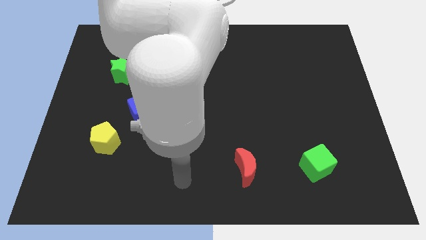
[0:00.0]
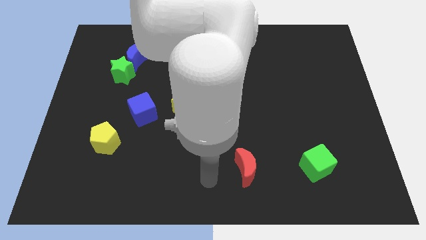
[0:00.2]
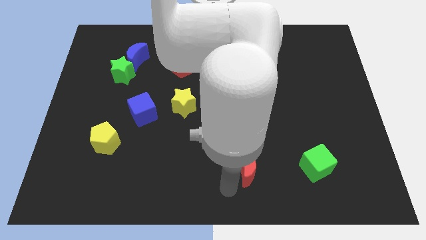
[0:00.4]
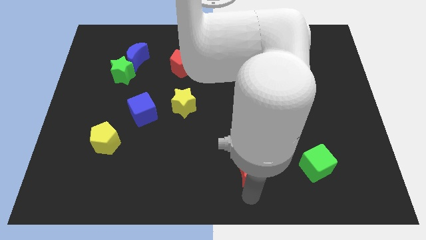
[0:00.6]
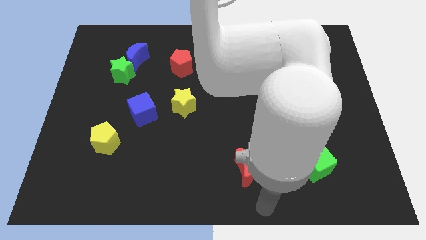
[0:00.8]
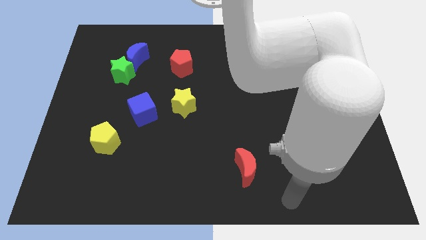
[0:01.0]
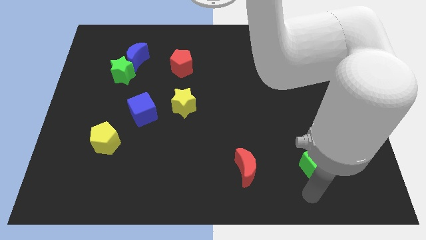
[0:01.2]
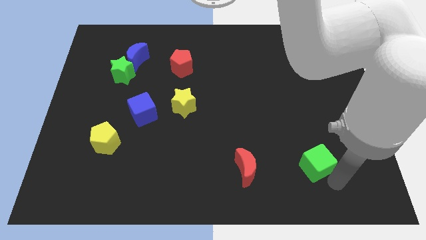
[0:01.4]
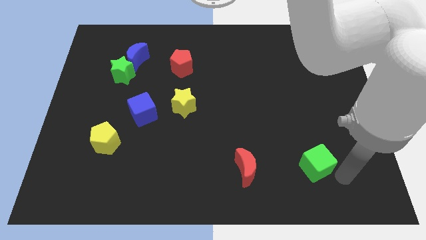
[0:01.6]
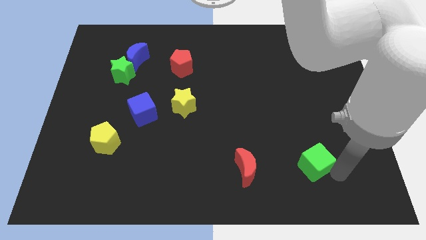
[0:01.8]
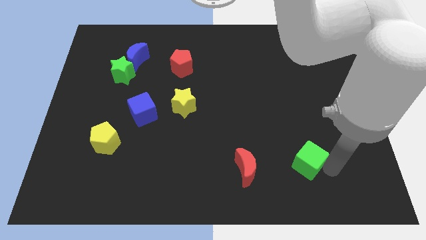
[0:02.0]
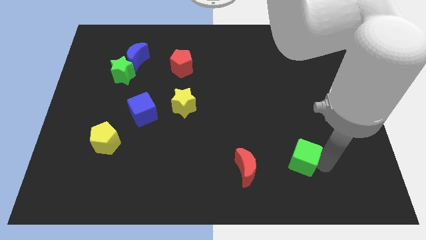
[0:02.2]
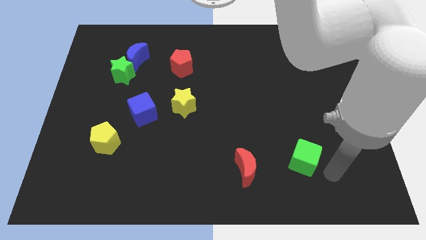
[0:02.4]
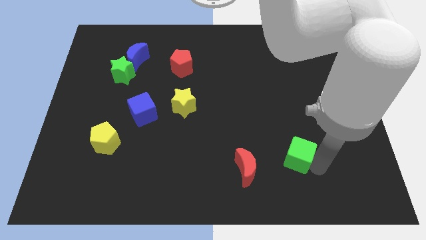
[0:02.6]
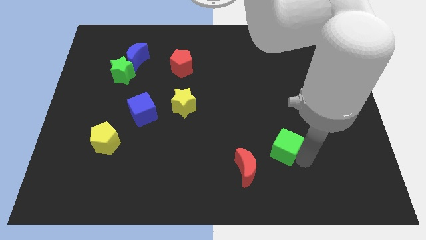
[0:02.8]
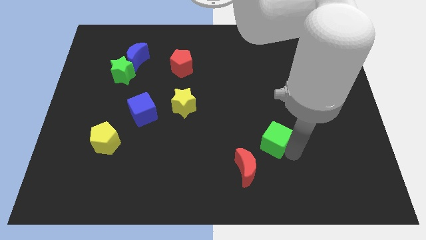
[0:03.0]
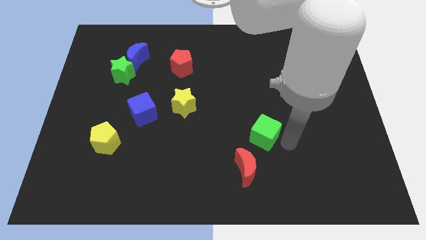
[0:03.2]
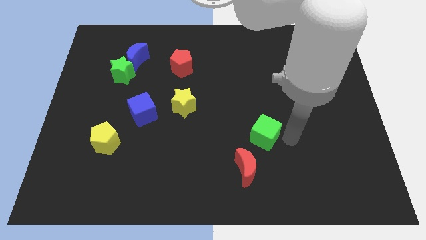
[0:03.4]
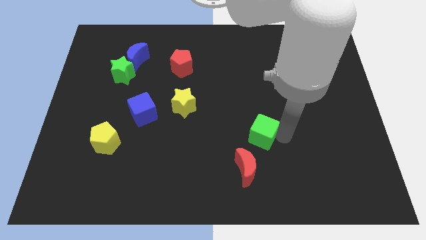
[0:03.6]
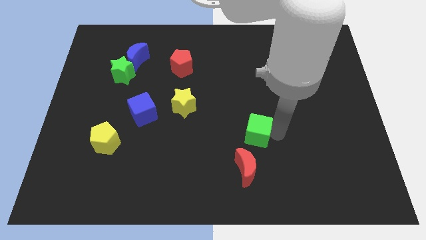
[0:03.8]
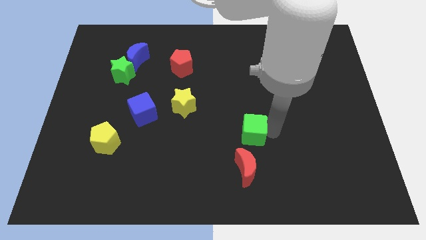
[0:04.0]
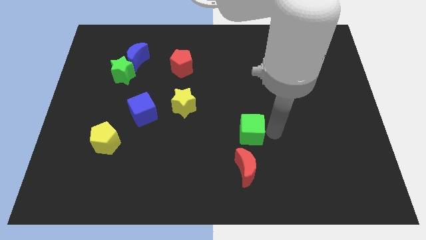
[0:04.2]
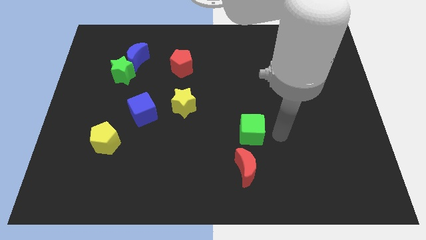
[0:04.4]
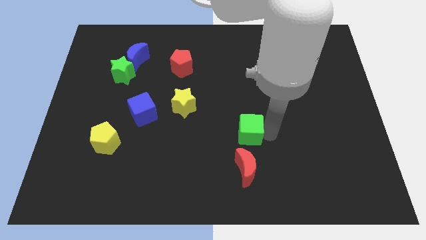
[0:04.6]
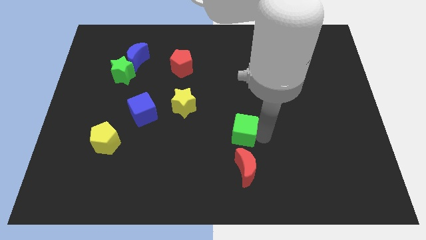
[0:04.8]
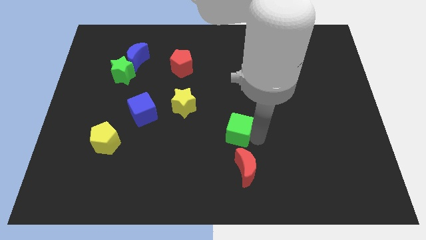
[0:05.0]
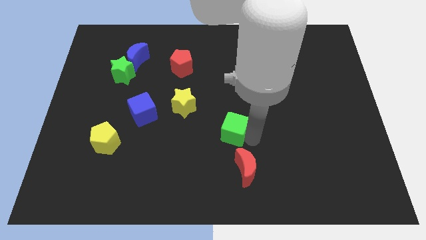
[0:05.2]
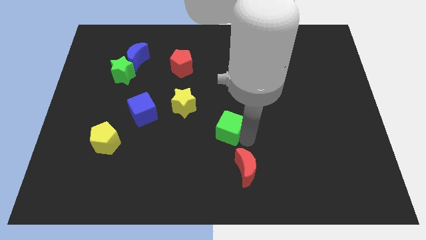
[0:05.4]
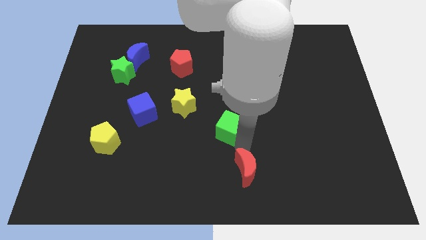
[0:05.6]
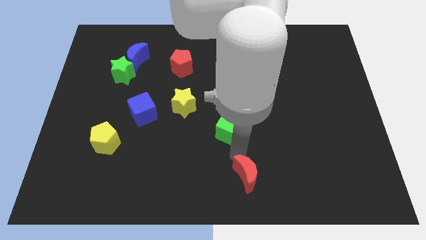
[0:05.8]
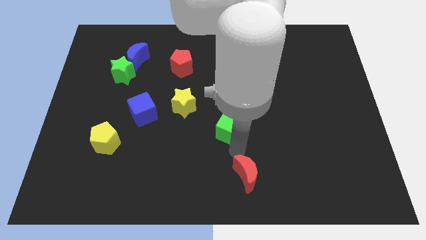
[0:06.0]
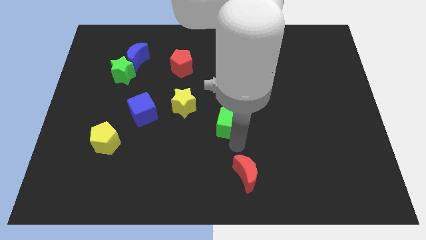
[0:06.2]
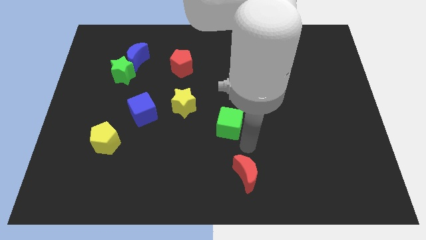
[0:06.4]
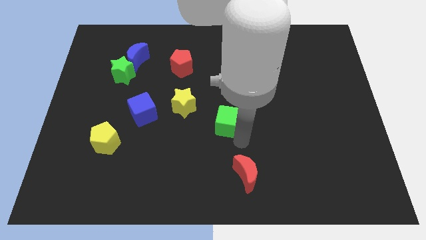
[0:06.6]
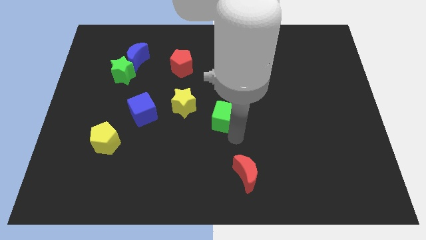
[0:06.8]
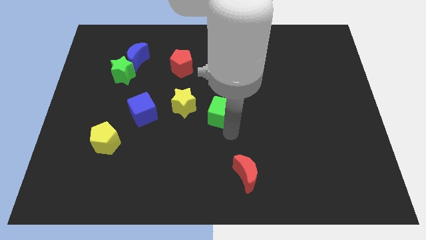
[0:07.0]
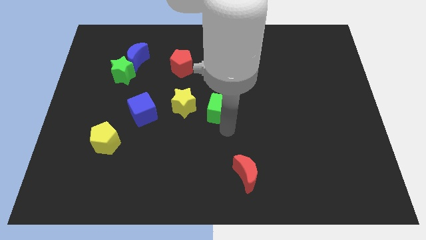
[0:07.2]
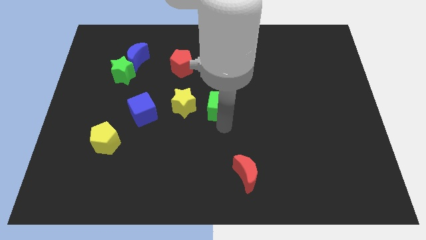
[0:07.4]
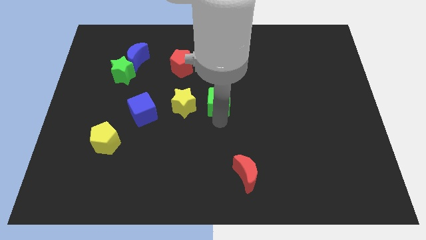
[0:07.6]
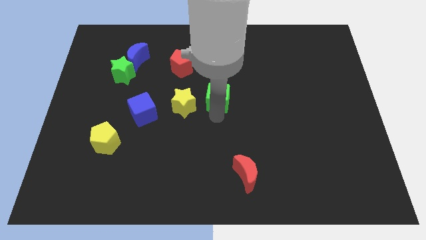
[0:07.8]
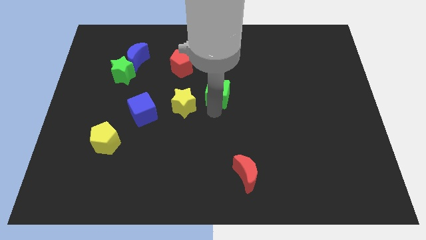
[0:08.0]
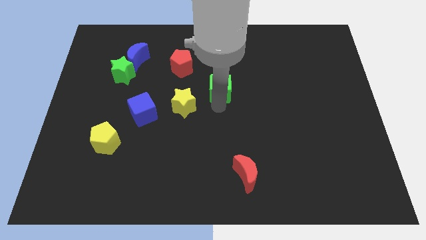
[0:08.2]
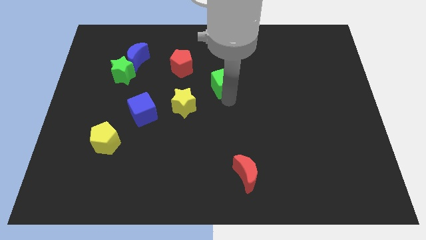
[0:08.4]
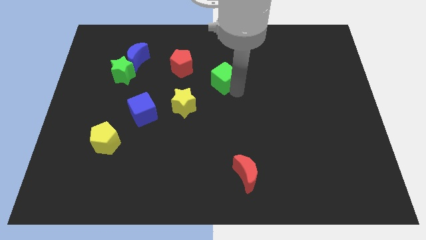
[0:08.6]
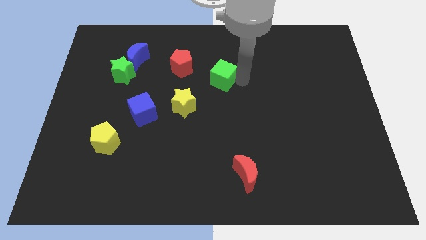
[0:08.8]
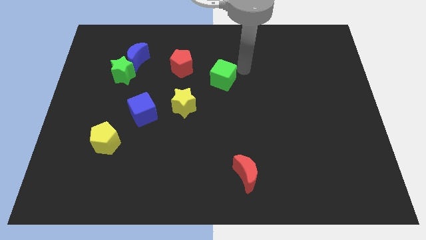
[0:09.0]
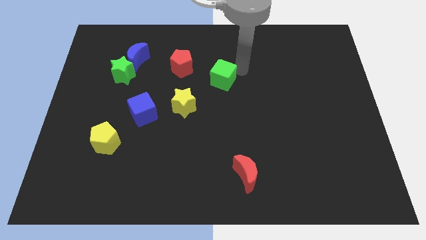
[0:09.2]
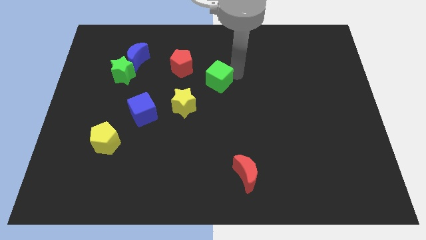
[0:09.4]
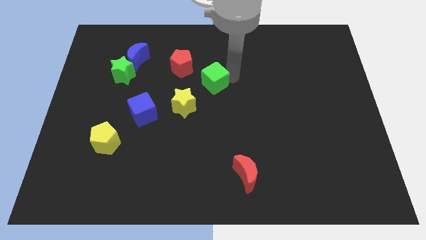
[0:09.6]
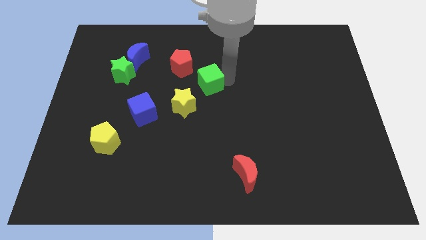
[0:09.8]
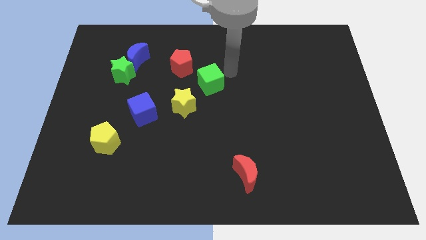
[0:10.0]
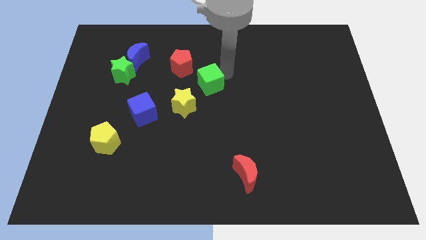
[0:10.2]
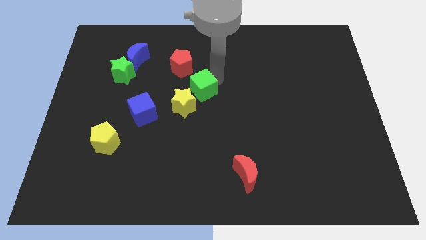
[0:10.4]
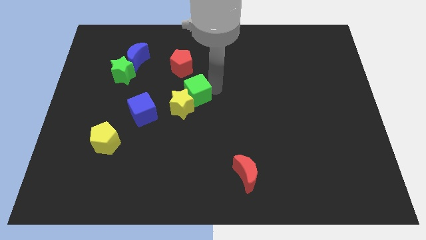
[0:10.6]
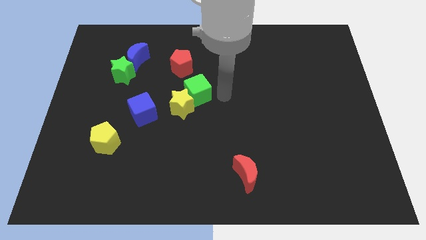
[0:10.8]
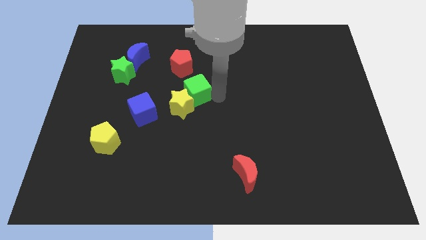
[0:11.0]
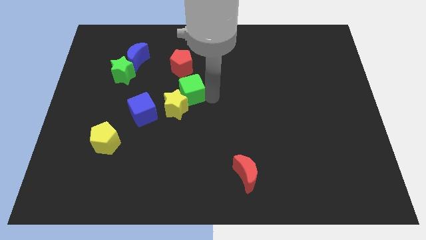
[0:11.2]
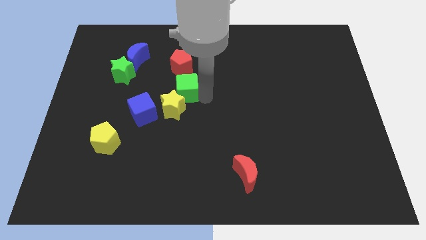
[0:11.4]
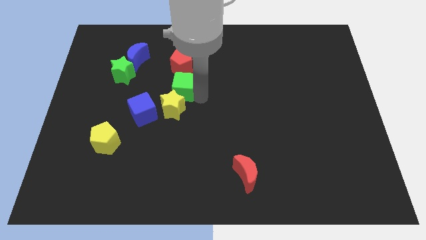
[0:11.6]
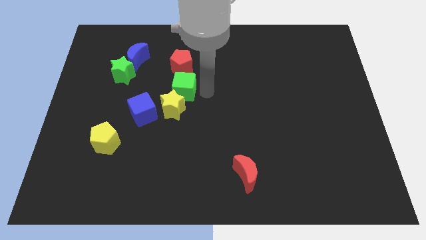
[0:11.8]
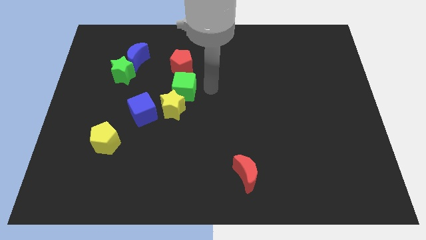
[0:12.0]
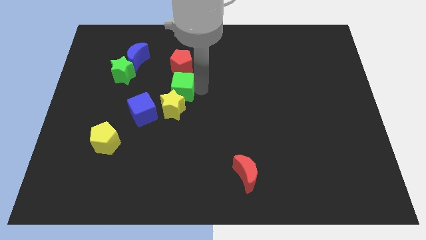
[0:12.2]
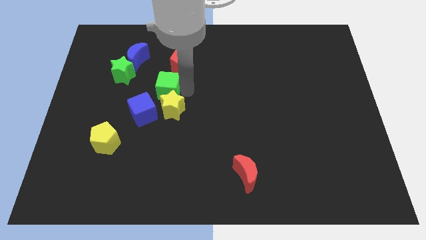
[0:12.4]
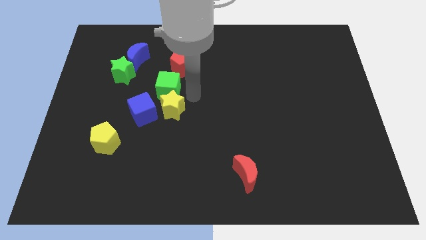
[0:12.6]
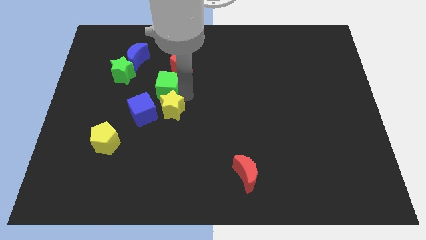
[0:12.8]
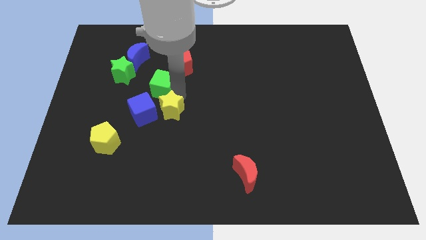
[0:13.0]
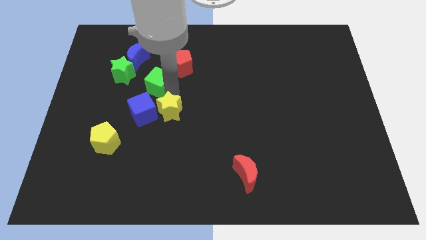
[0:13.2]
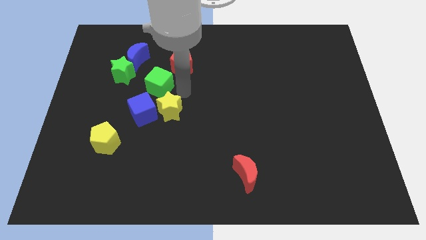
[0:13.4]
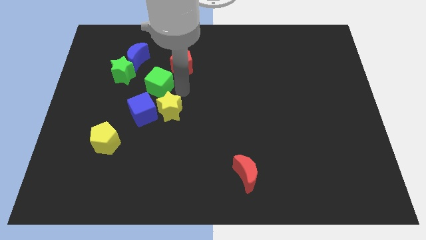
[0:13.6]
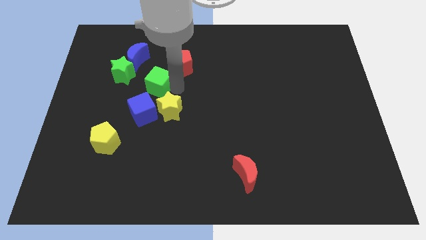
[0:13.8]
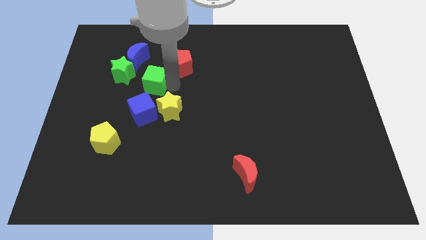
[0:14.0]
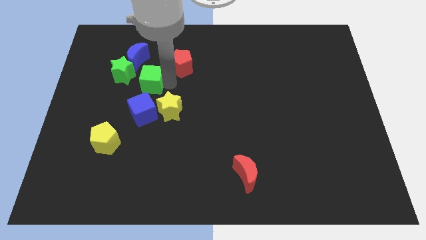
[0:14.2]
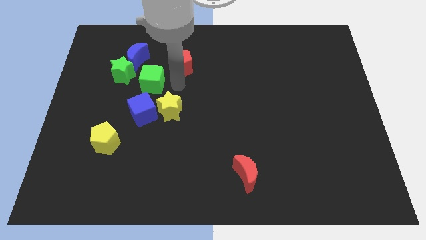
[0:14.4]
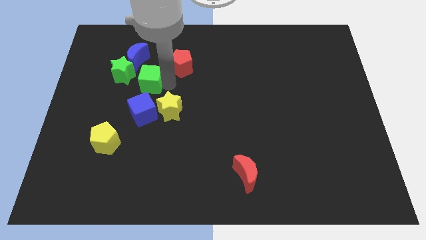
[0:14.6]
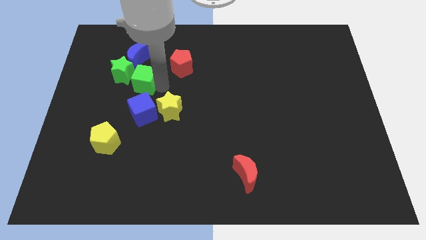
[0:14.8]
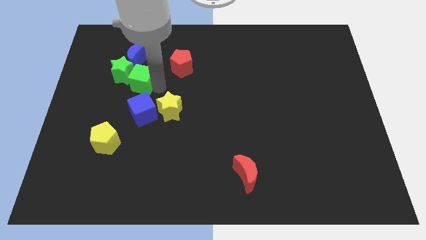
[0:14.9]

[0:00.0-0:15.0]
move the green cube close to the green star
